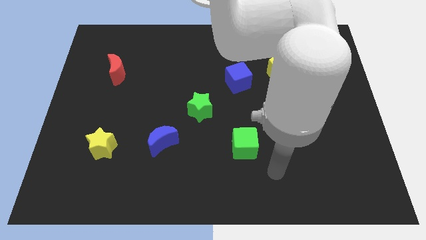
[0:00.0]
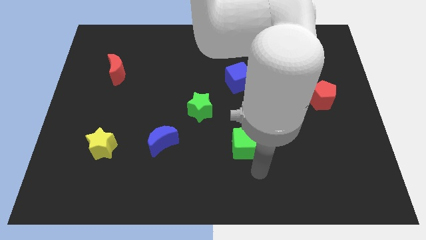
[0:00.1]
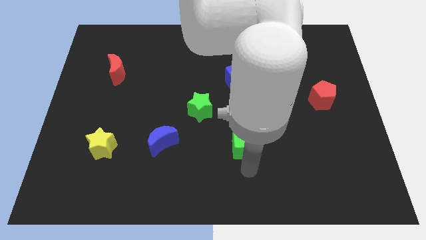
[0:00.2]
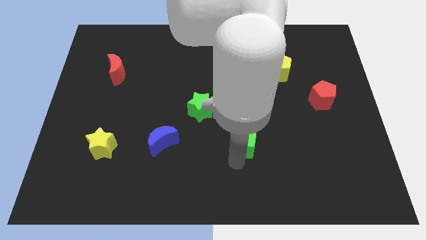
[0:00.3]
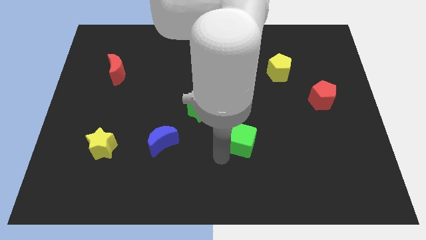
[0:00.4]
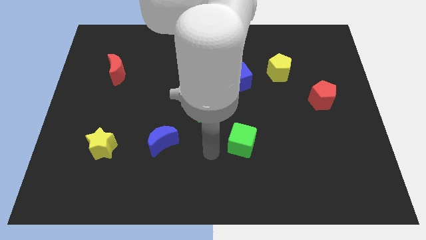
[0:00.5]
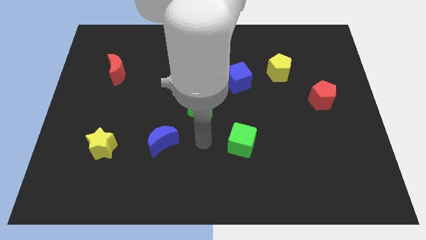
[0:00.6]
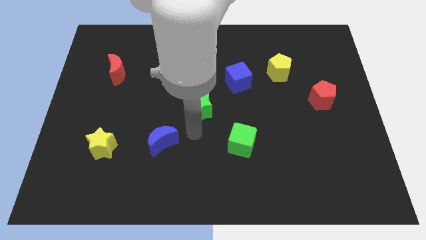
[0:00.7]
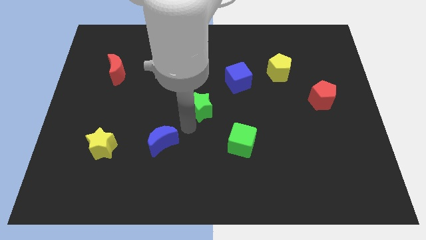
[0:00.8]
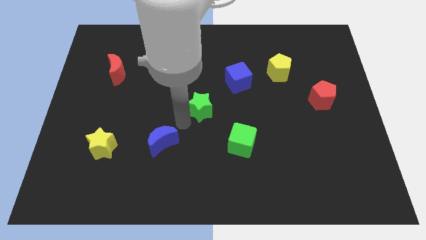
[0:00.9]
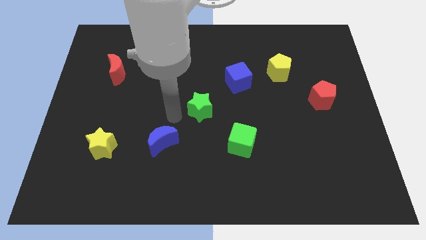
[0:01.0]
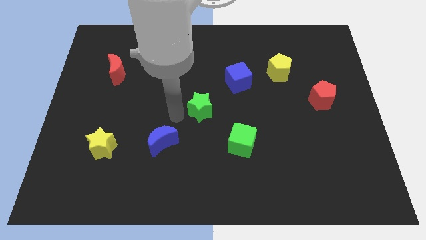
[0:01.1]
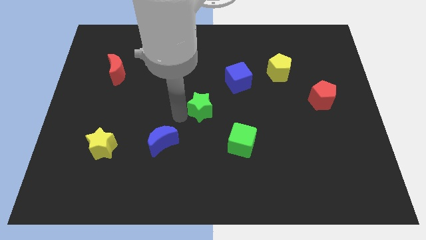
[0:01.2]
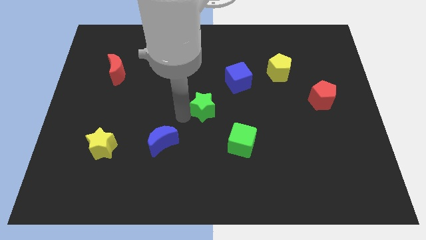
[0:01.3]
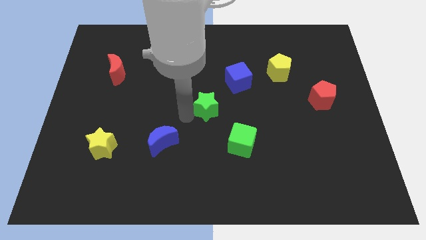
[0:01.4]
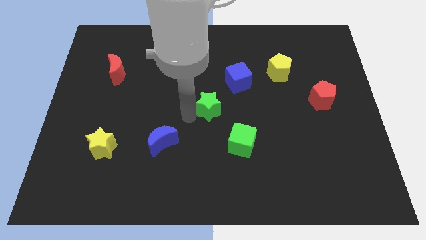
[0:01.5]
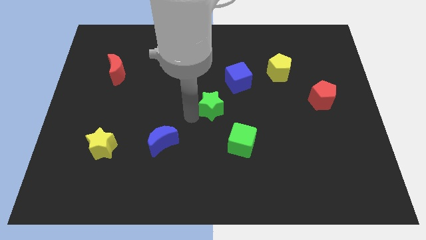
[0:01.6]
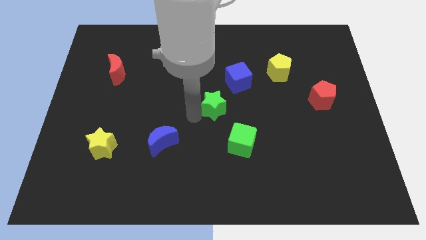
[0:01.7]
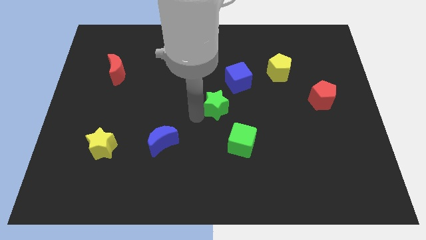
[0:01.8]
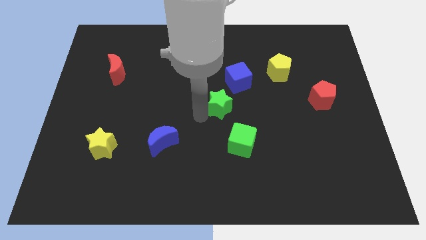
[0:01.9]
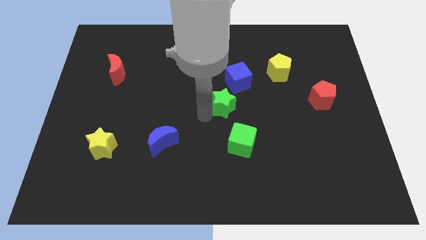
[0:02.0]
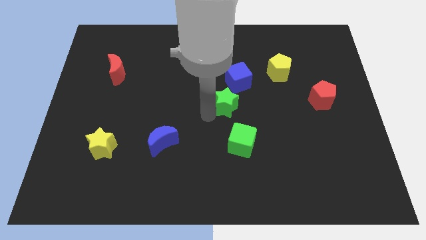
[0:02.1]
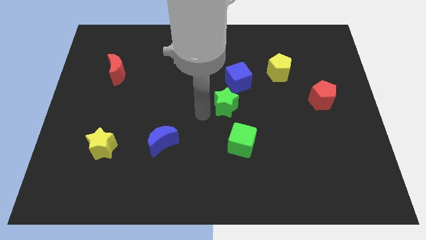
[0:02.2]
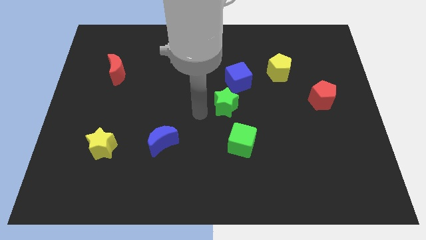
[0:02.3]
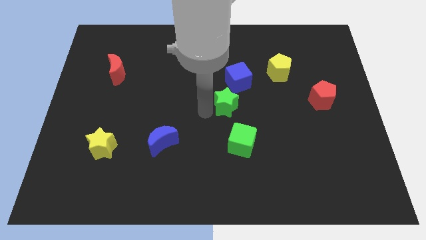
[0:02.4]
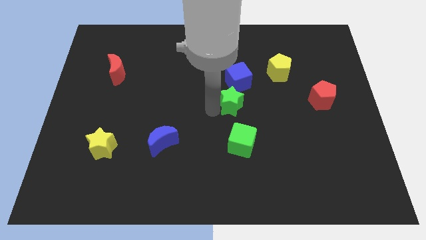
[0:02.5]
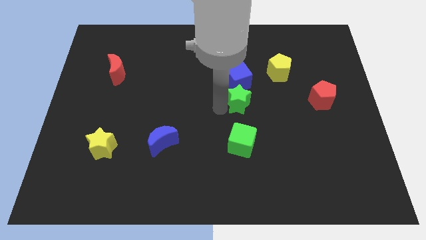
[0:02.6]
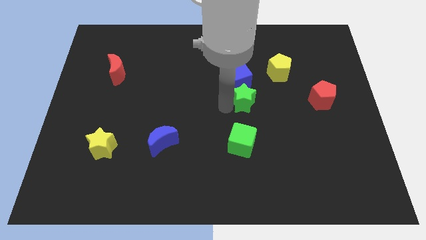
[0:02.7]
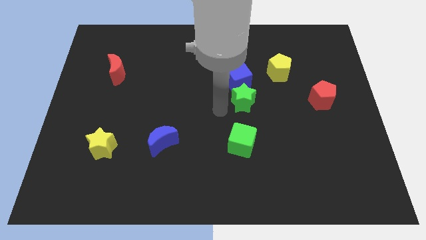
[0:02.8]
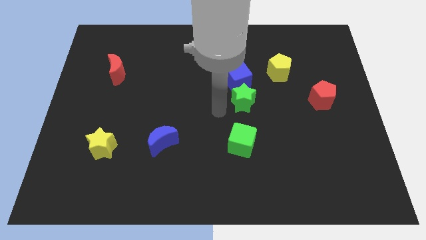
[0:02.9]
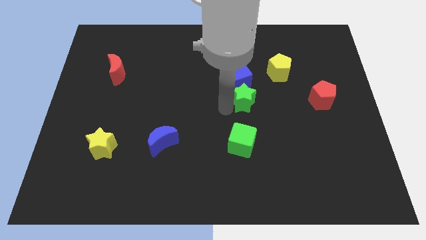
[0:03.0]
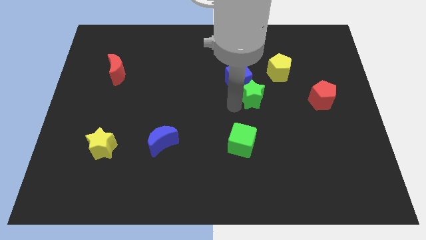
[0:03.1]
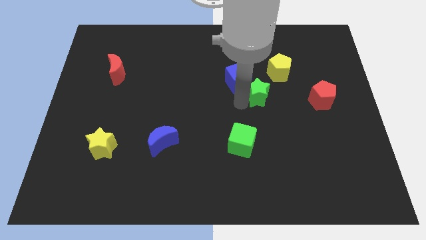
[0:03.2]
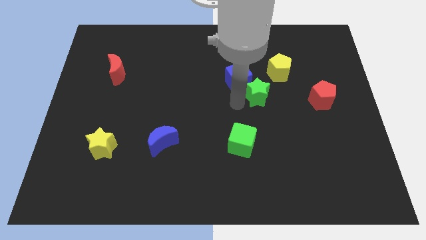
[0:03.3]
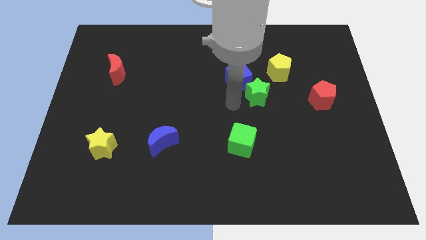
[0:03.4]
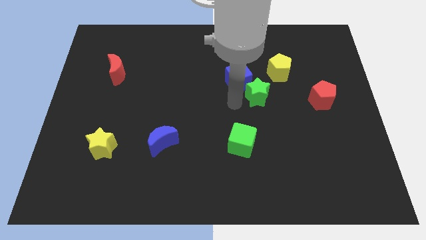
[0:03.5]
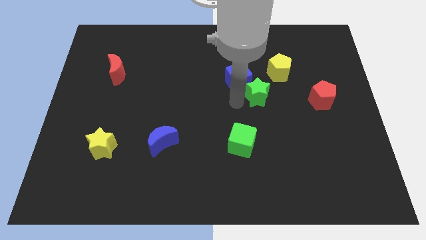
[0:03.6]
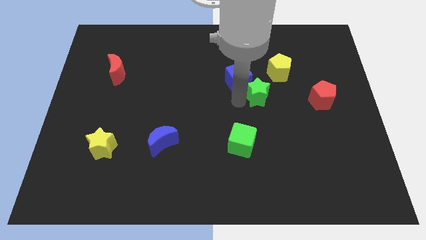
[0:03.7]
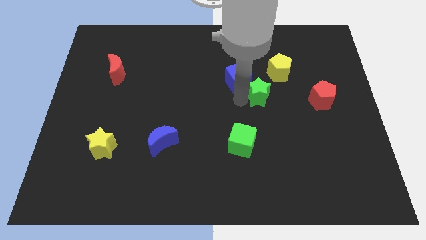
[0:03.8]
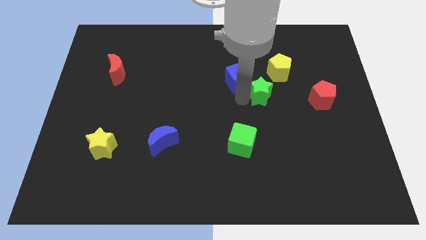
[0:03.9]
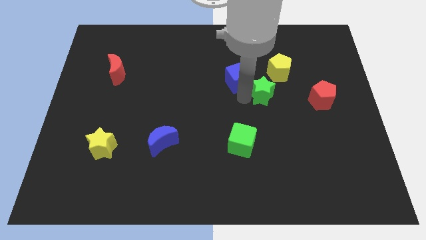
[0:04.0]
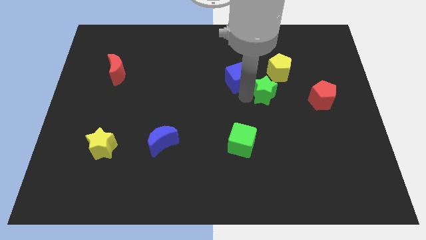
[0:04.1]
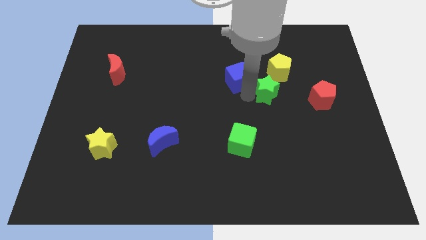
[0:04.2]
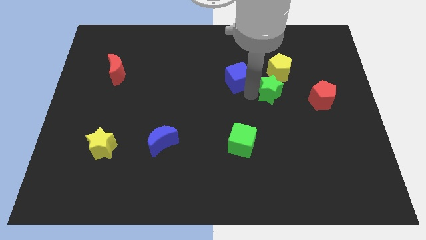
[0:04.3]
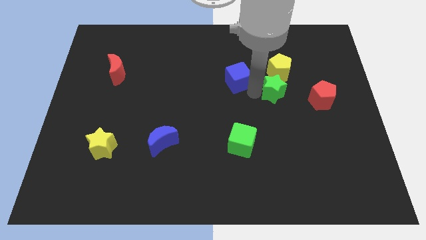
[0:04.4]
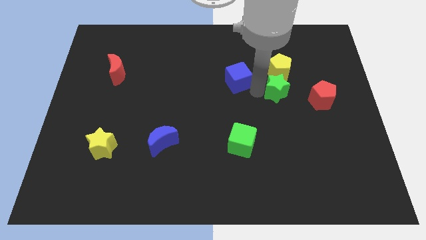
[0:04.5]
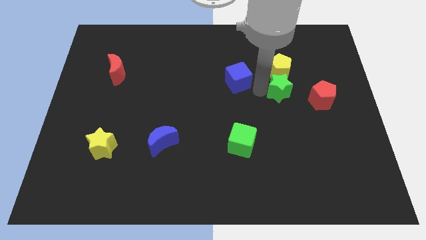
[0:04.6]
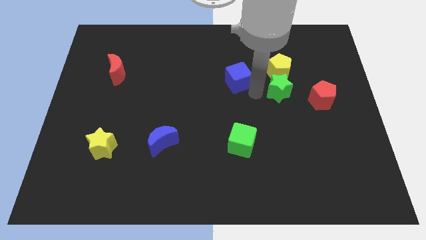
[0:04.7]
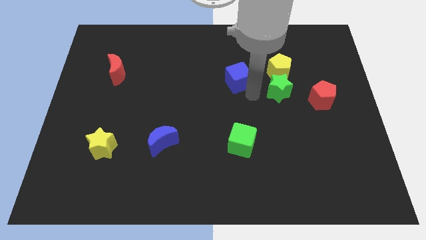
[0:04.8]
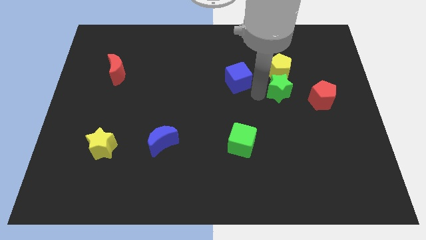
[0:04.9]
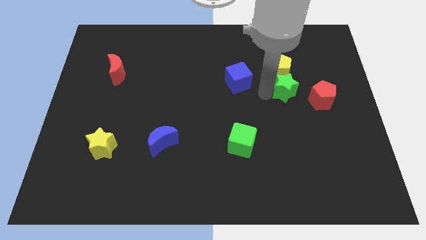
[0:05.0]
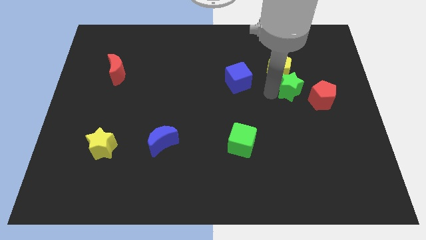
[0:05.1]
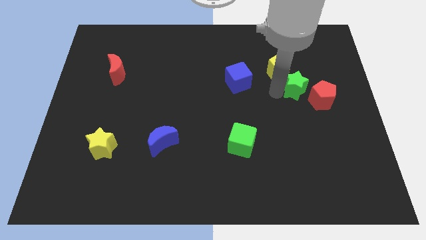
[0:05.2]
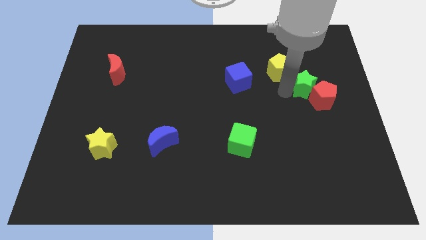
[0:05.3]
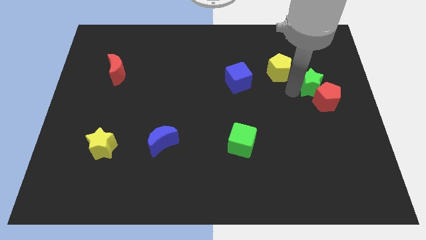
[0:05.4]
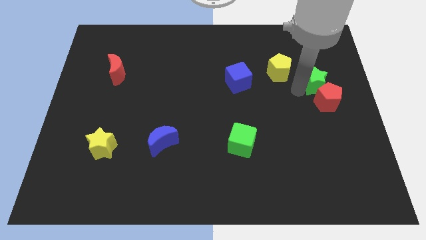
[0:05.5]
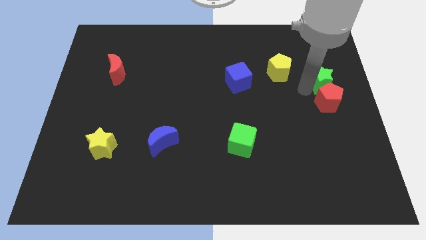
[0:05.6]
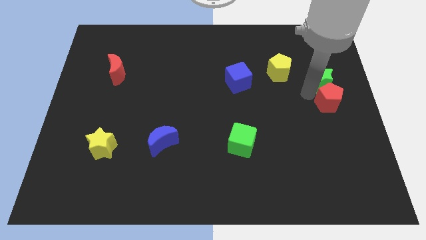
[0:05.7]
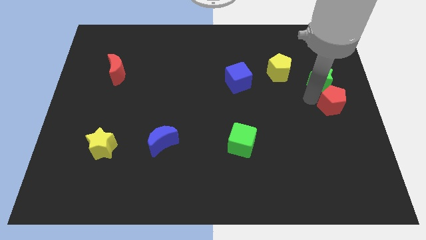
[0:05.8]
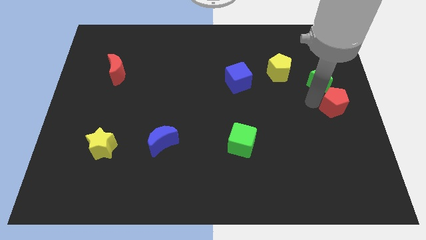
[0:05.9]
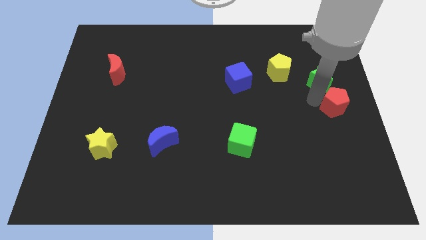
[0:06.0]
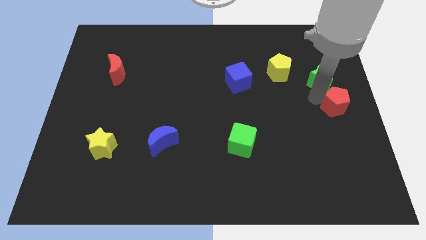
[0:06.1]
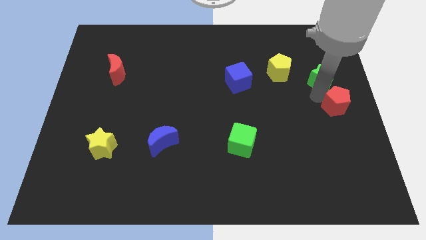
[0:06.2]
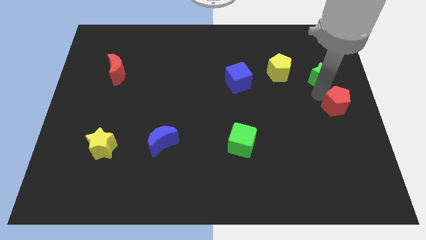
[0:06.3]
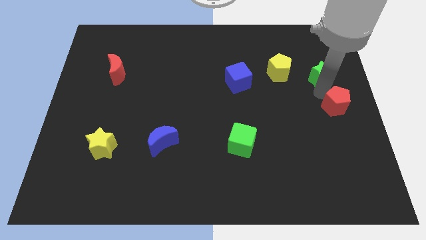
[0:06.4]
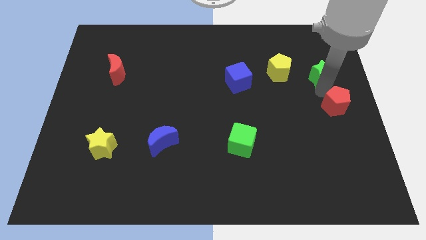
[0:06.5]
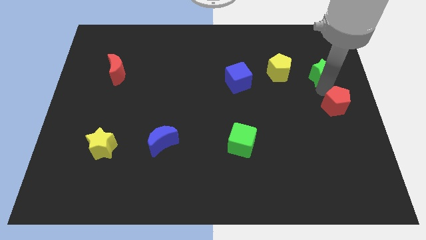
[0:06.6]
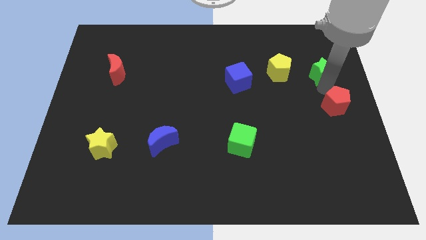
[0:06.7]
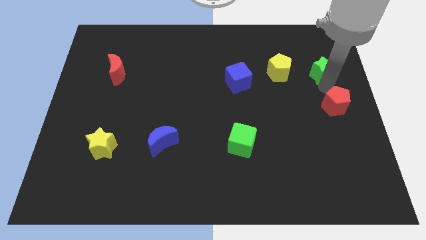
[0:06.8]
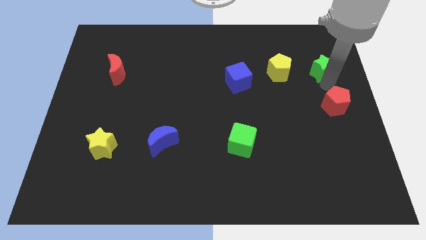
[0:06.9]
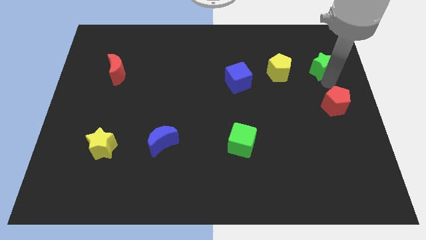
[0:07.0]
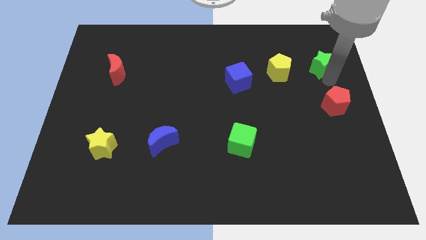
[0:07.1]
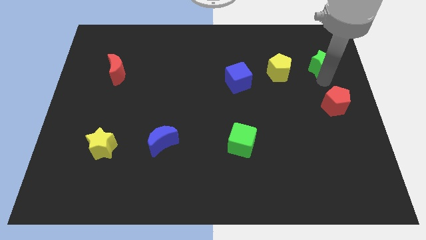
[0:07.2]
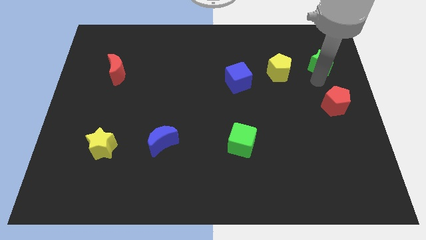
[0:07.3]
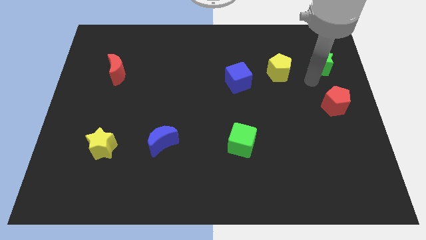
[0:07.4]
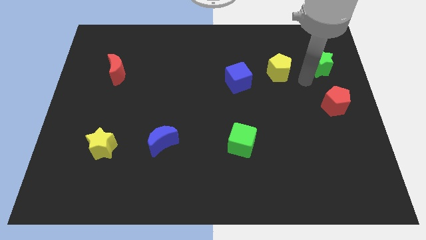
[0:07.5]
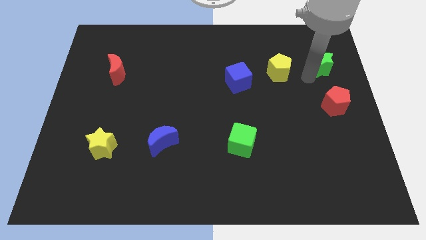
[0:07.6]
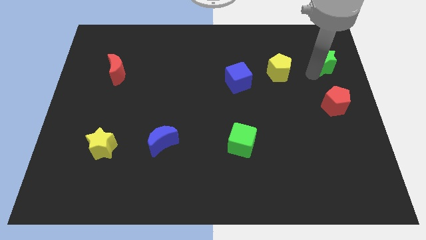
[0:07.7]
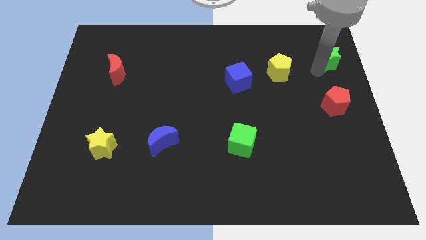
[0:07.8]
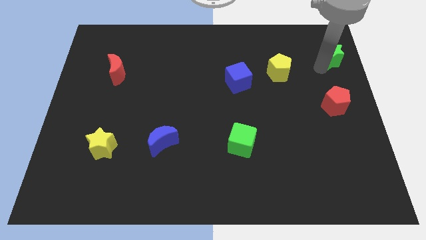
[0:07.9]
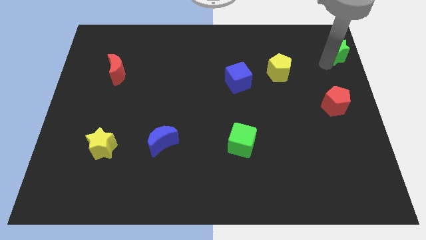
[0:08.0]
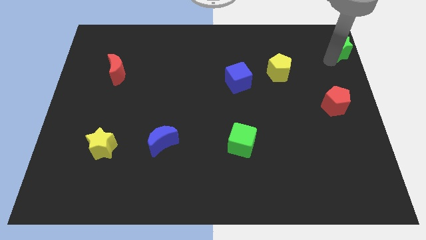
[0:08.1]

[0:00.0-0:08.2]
move the green star to the upper right corner
